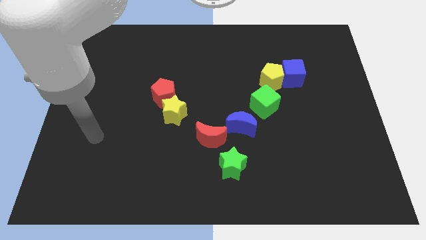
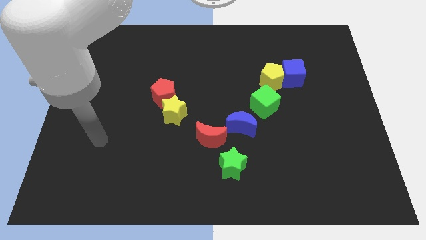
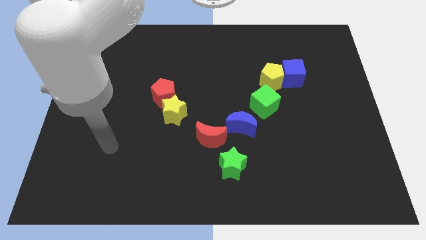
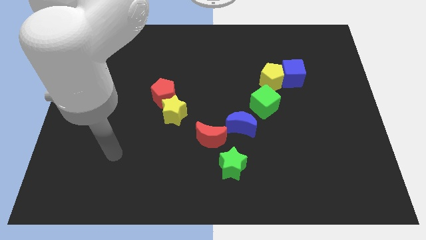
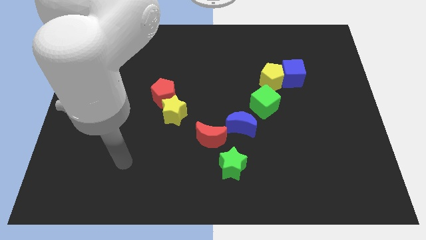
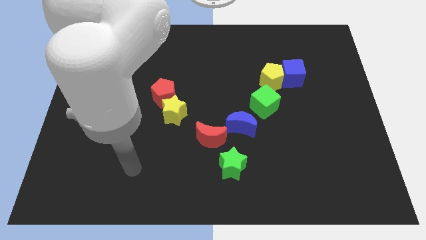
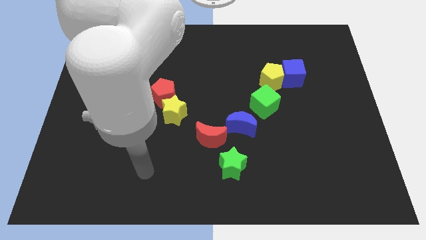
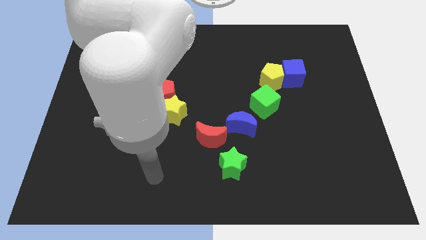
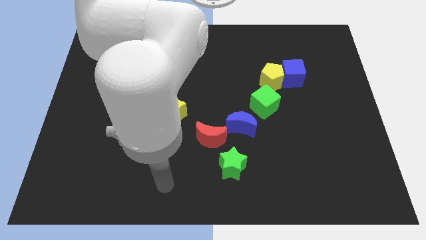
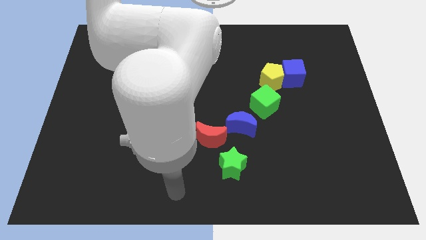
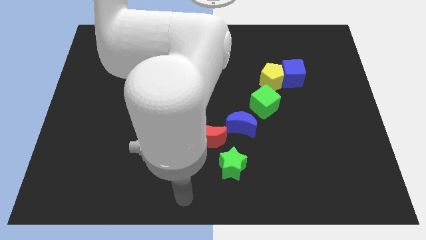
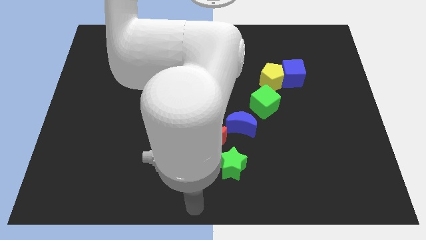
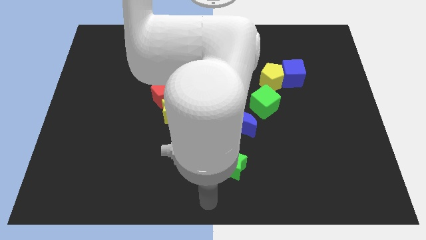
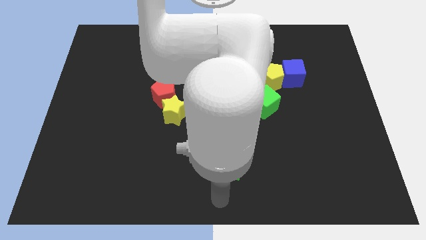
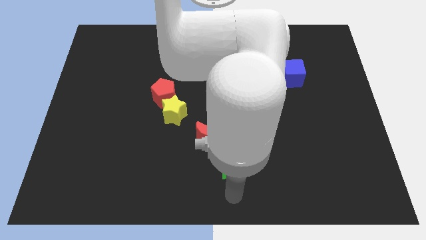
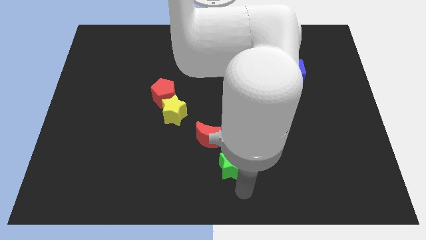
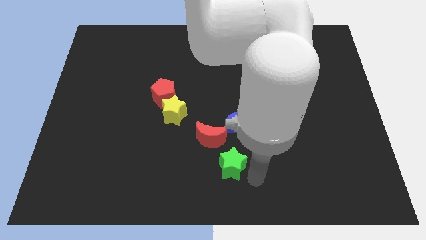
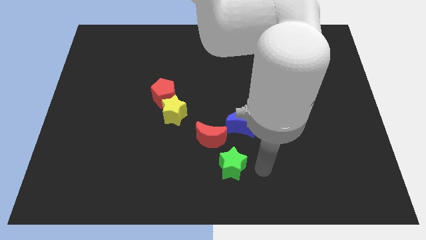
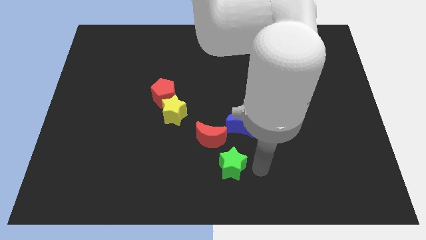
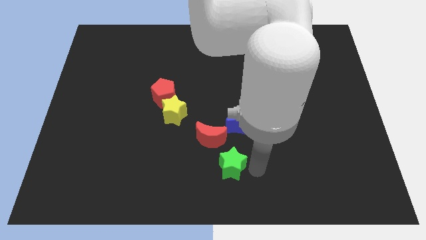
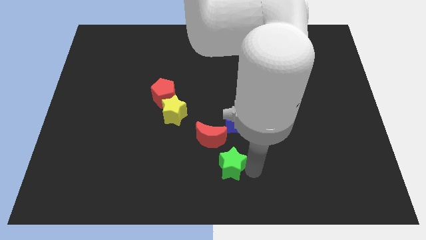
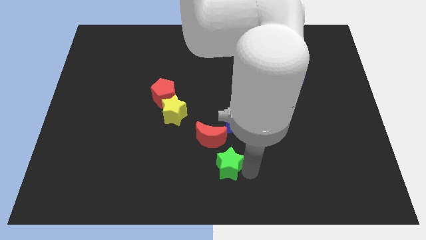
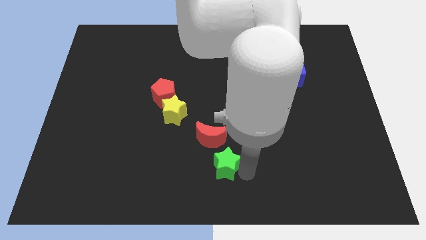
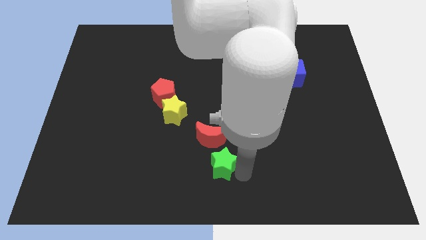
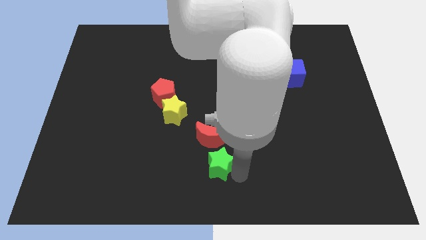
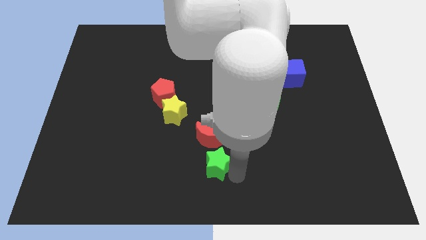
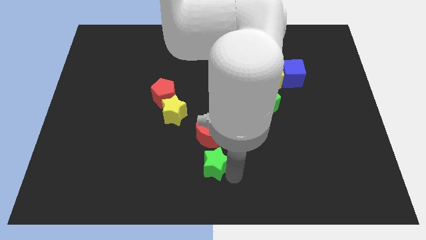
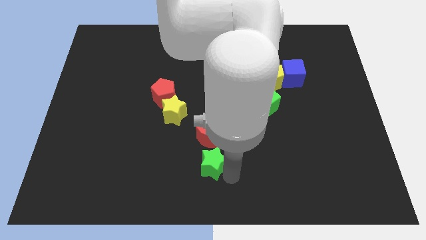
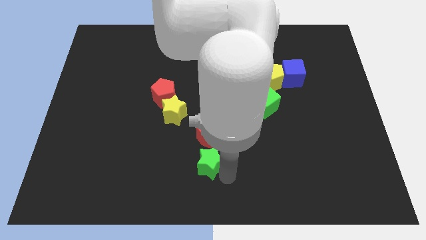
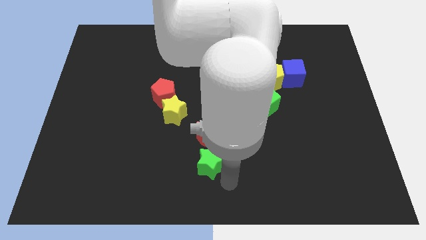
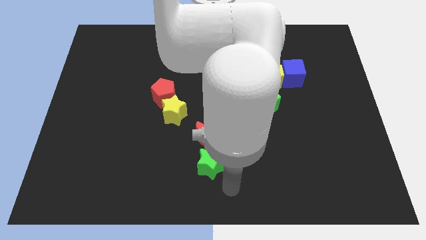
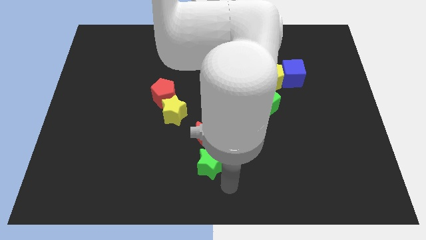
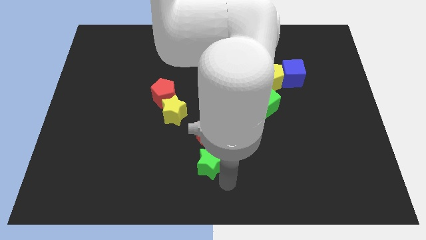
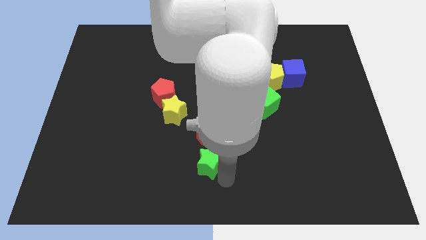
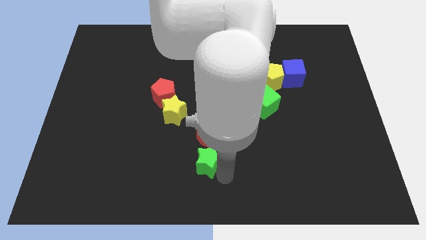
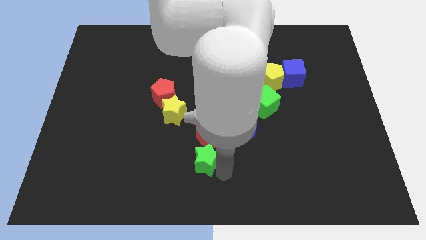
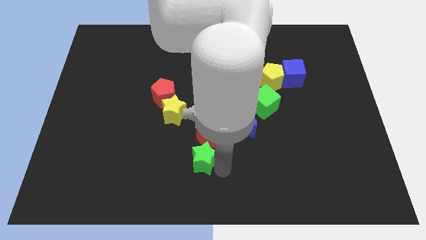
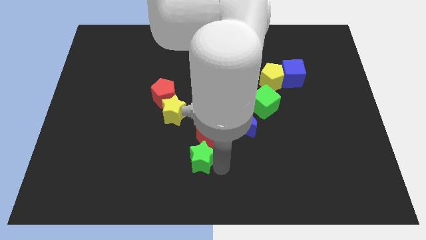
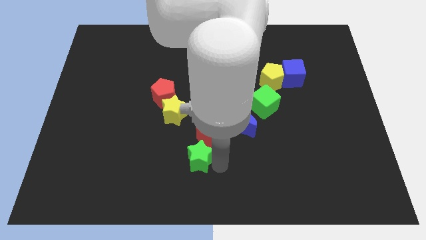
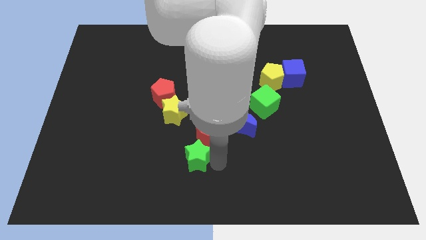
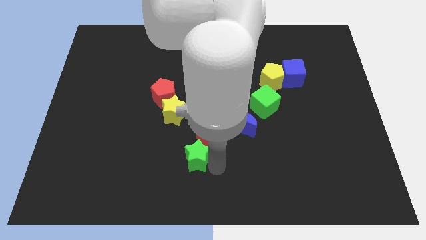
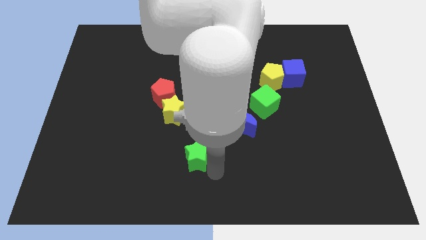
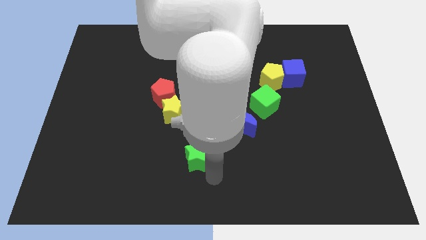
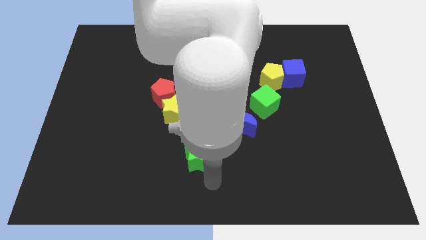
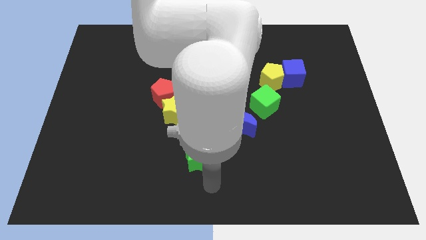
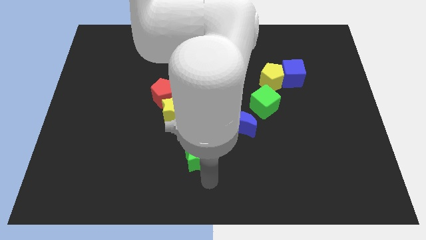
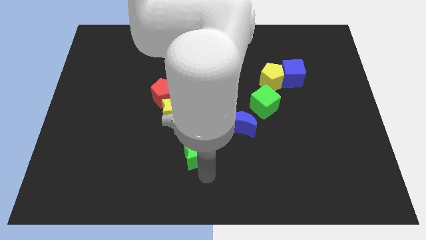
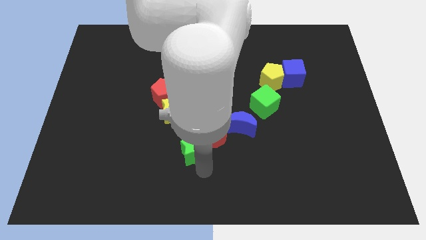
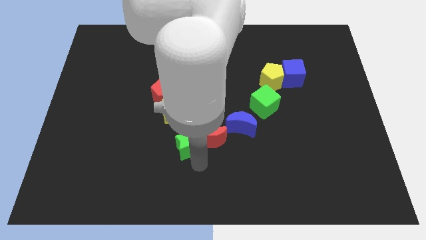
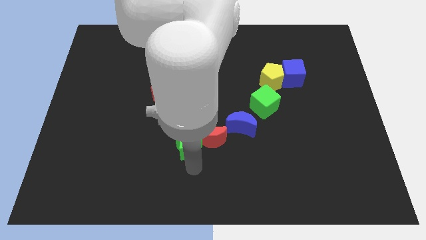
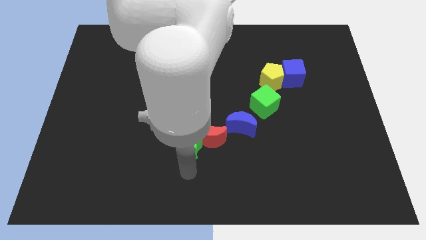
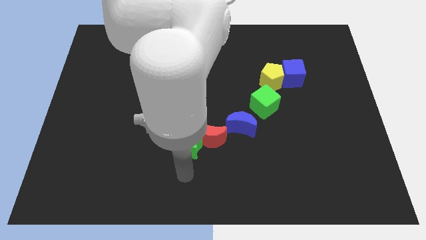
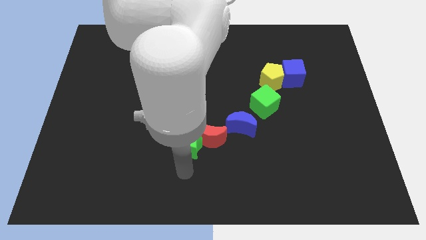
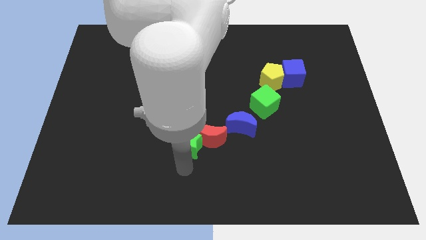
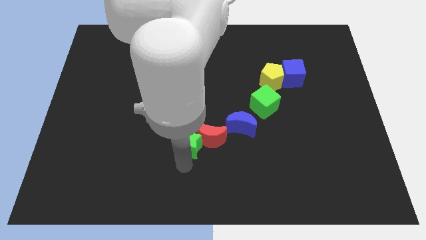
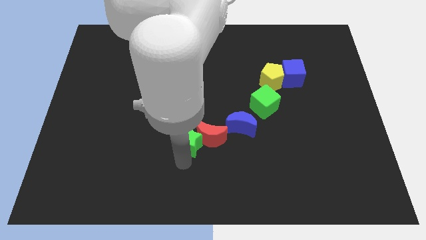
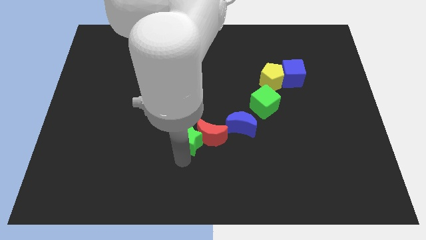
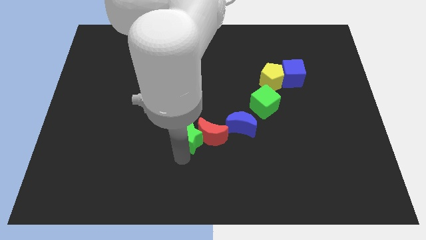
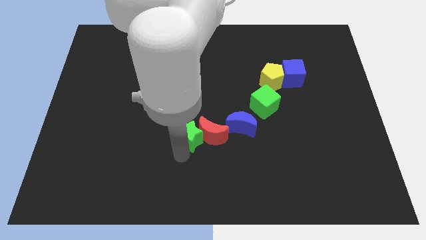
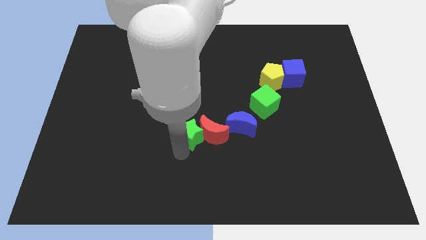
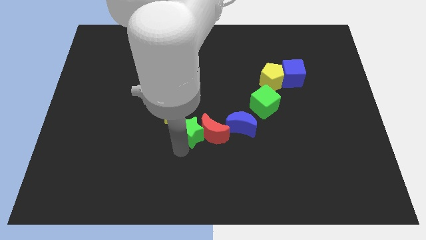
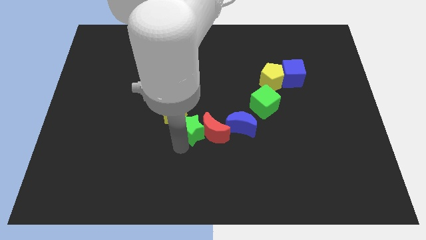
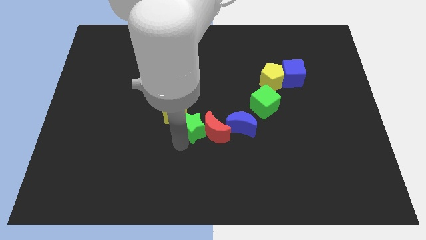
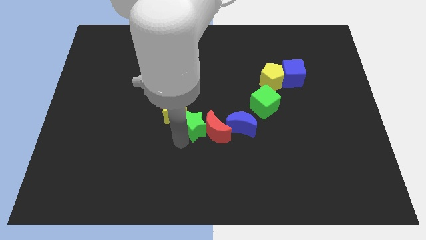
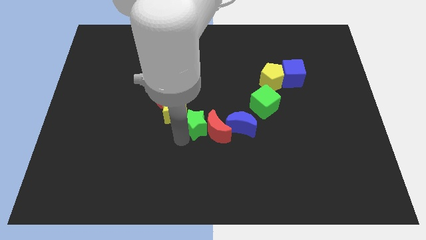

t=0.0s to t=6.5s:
slightly slide the green star upwards

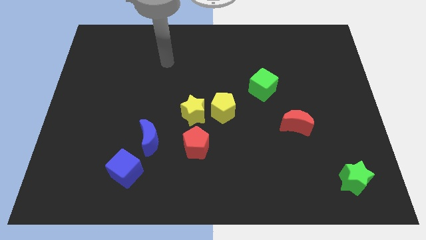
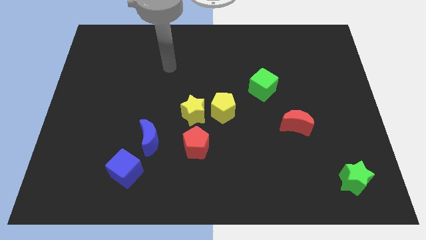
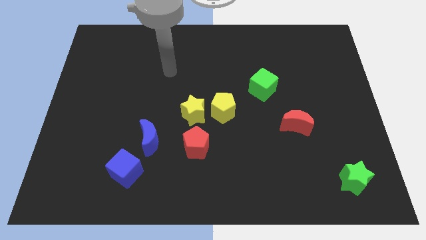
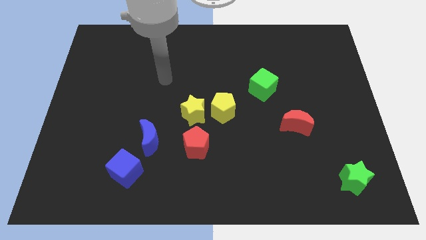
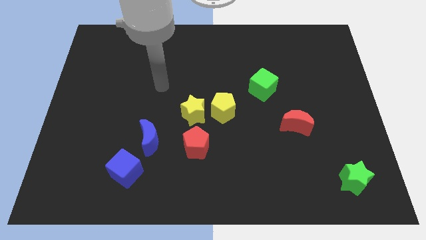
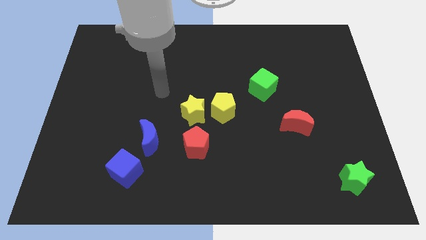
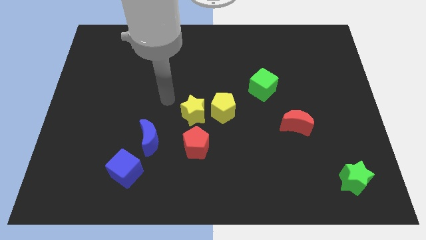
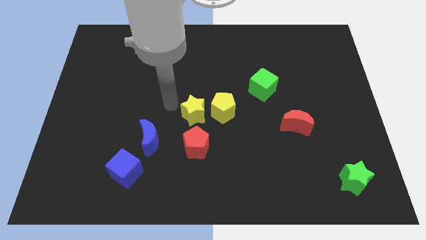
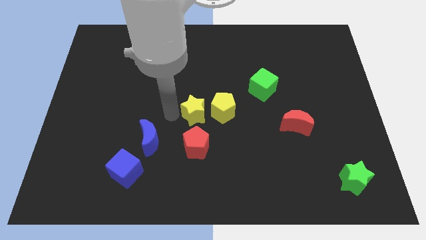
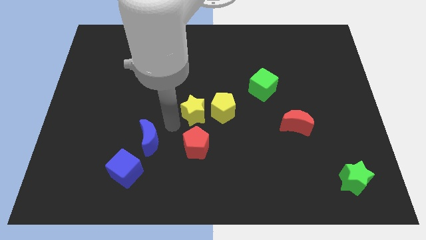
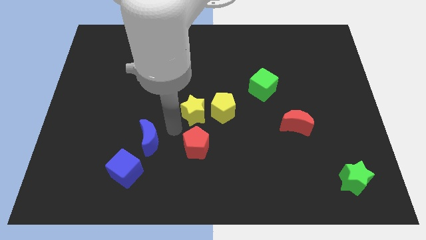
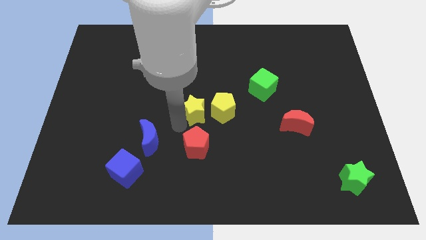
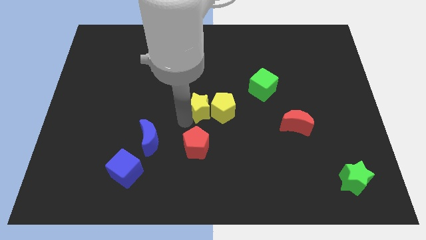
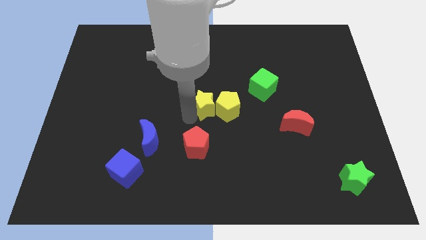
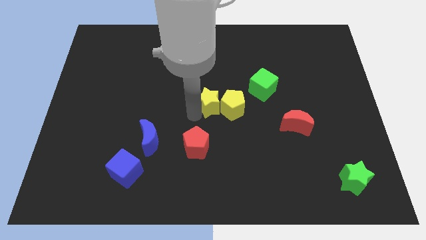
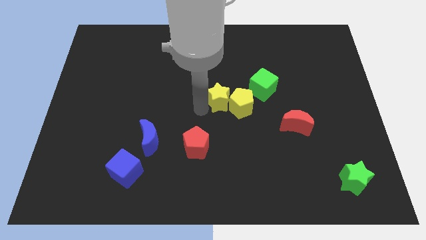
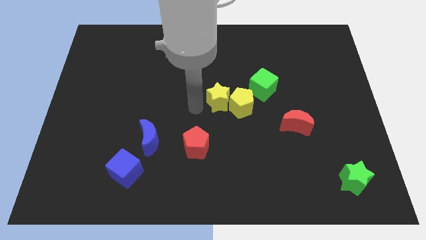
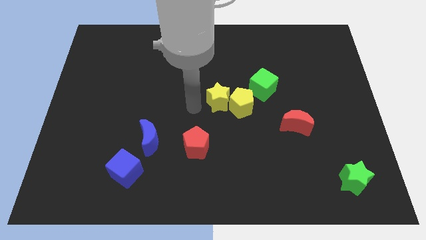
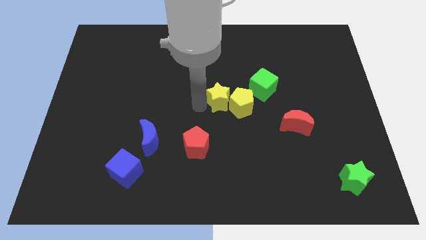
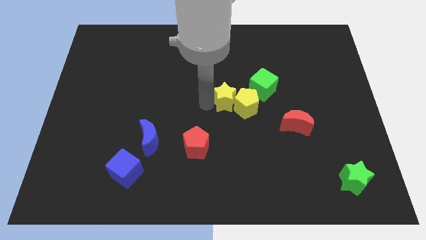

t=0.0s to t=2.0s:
push the yellow star right a bit
